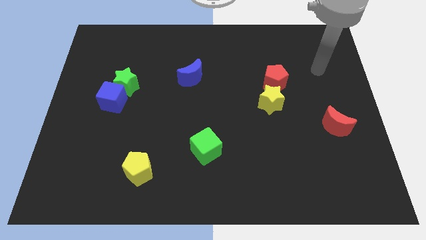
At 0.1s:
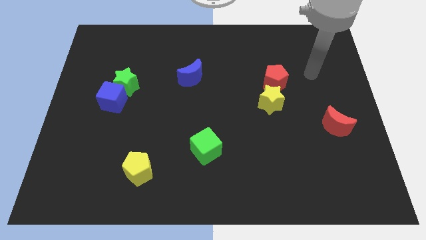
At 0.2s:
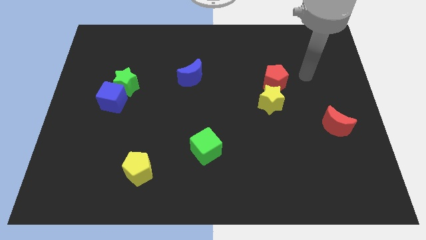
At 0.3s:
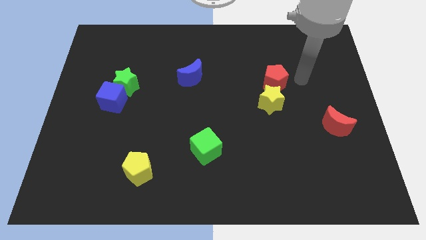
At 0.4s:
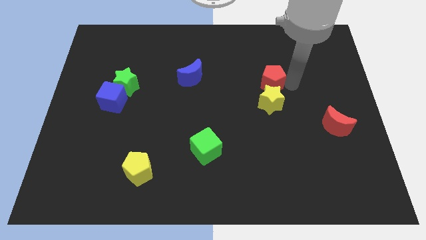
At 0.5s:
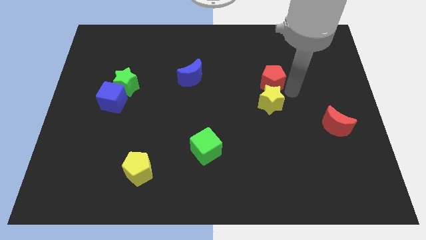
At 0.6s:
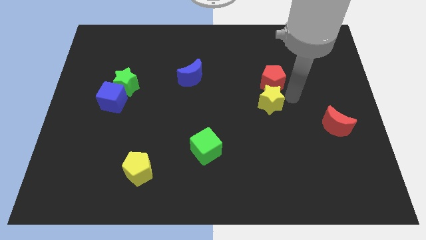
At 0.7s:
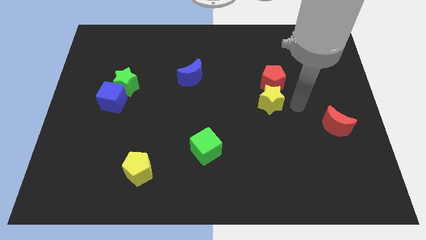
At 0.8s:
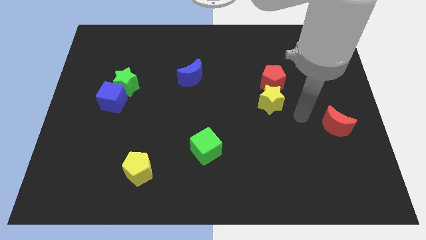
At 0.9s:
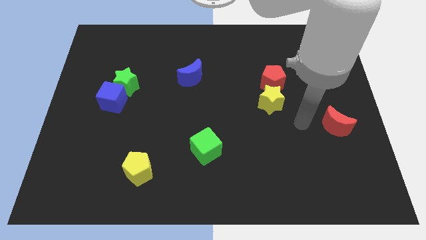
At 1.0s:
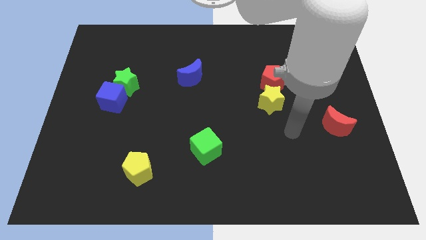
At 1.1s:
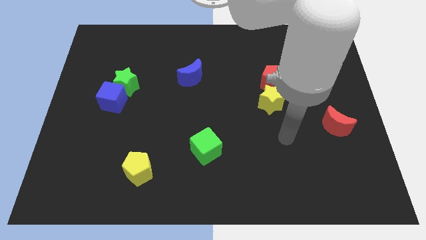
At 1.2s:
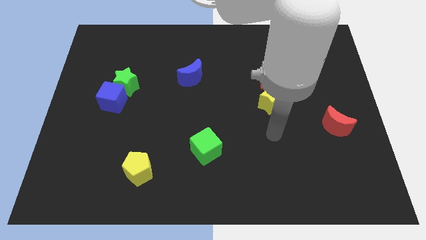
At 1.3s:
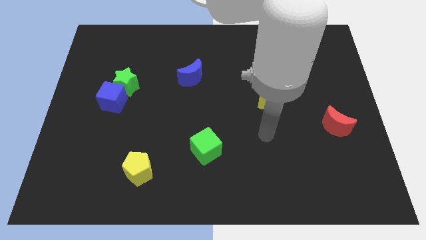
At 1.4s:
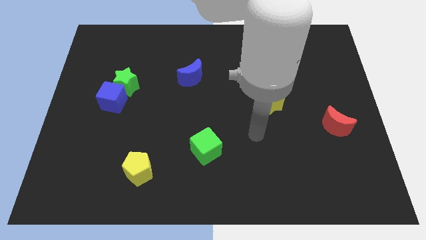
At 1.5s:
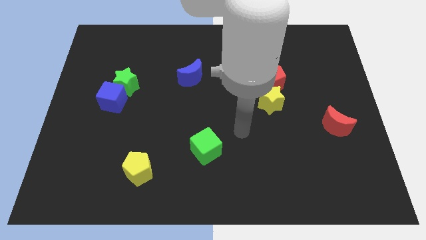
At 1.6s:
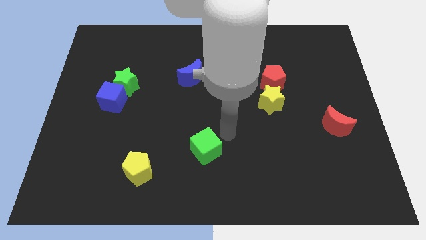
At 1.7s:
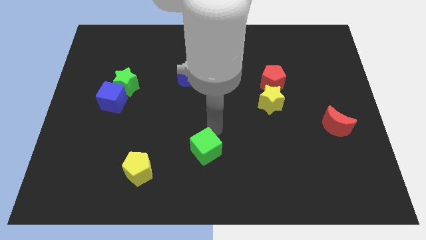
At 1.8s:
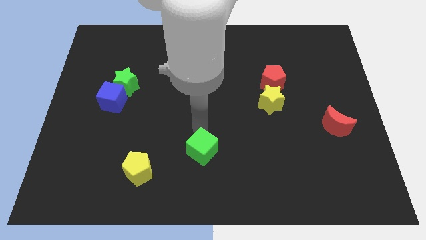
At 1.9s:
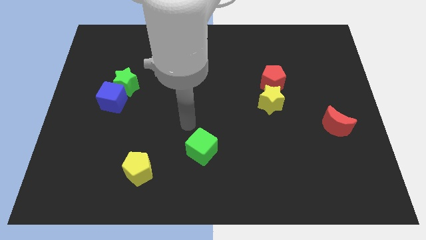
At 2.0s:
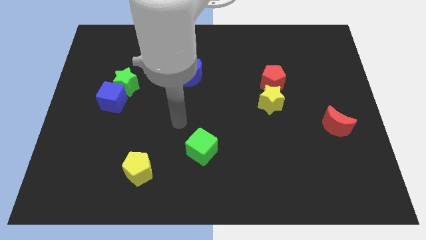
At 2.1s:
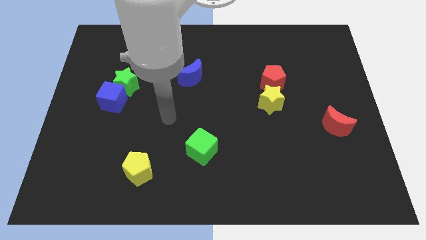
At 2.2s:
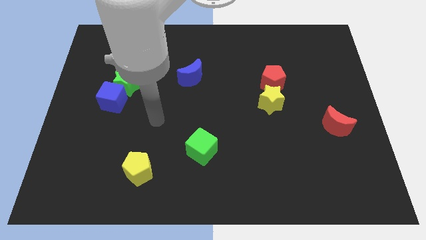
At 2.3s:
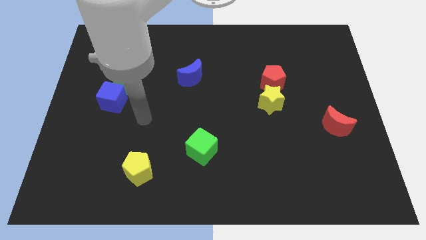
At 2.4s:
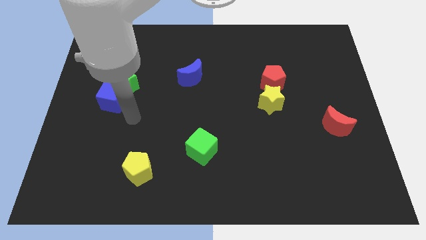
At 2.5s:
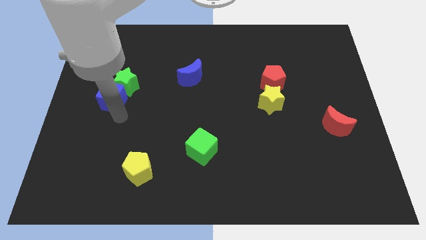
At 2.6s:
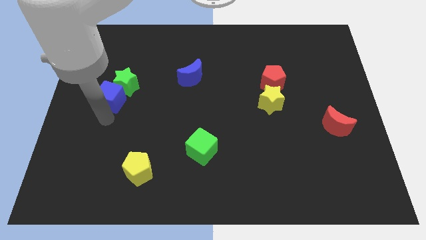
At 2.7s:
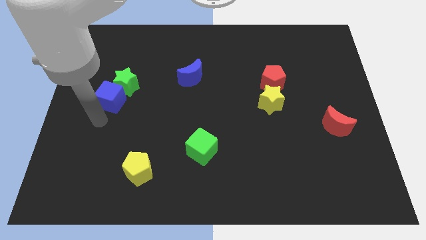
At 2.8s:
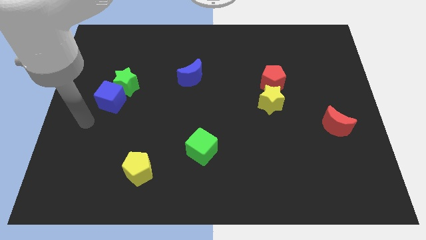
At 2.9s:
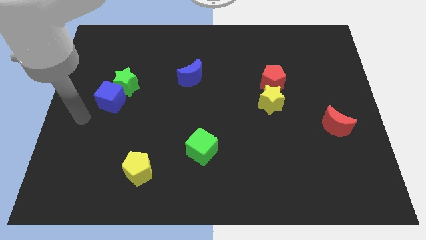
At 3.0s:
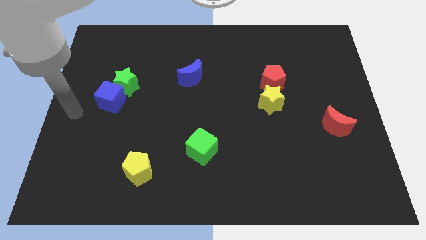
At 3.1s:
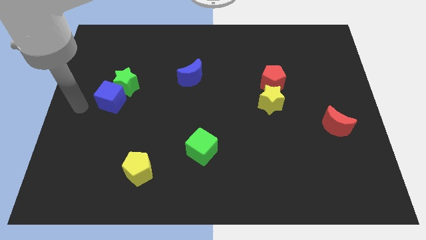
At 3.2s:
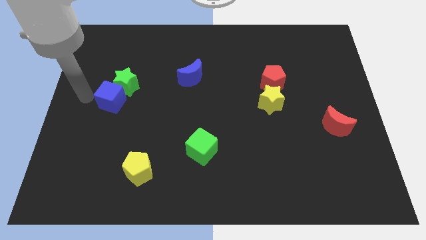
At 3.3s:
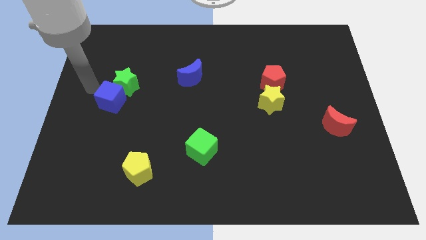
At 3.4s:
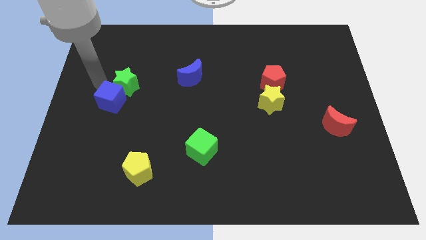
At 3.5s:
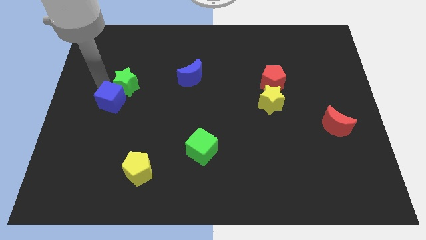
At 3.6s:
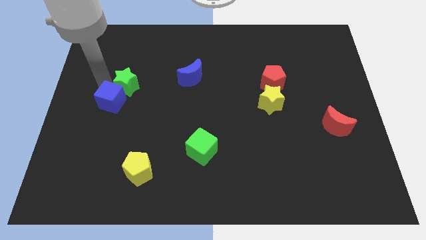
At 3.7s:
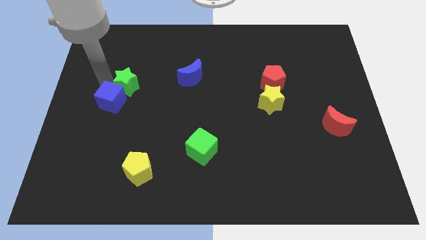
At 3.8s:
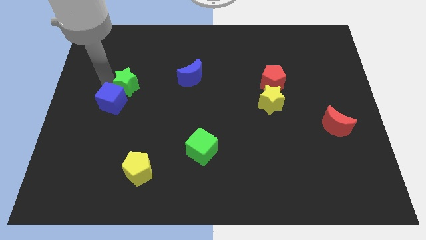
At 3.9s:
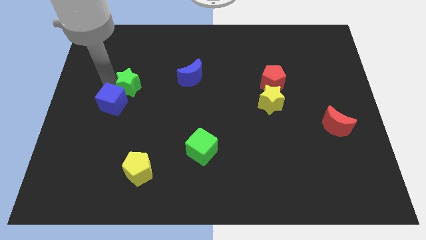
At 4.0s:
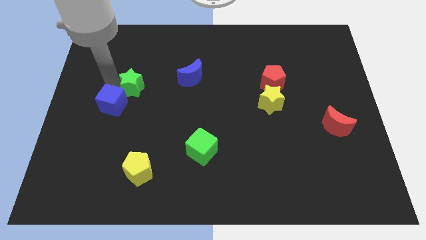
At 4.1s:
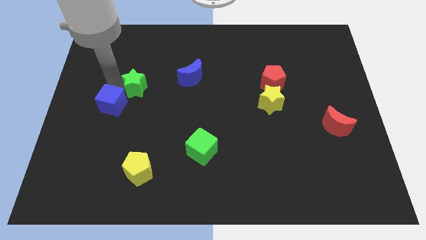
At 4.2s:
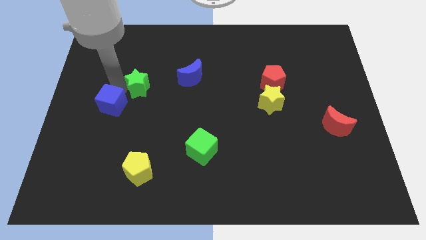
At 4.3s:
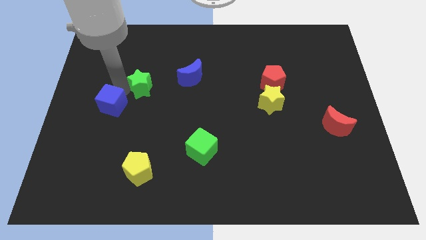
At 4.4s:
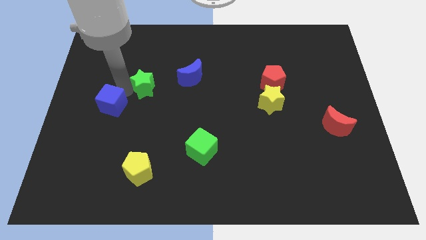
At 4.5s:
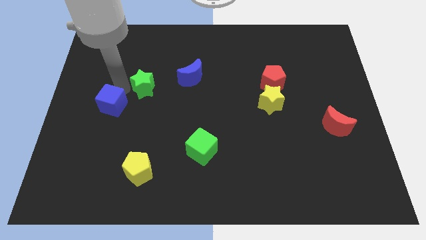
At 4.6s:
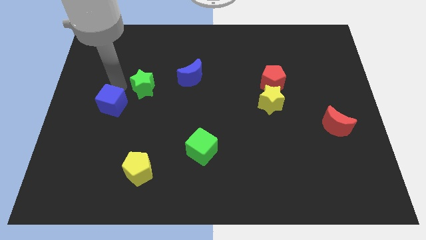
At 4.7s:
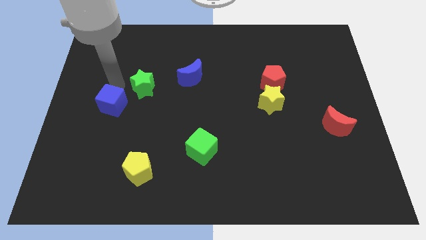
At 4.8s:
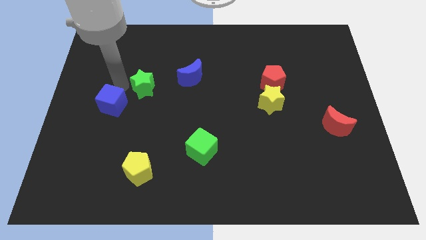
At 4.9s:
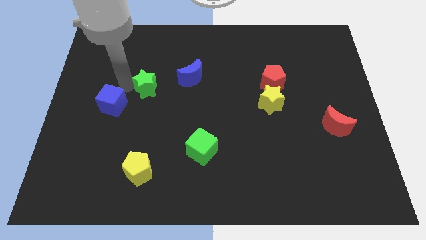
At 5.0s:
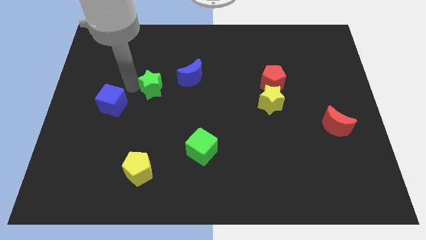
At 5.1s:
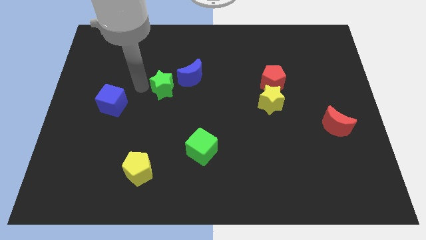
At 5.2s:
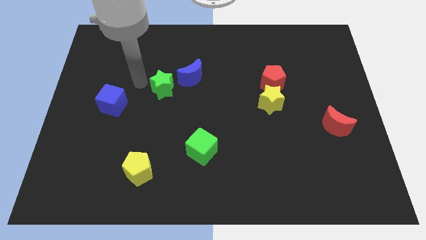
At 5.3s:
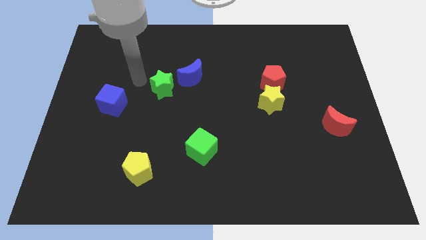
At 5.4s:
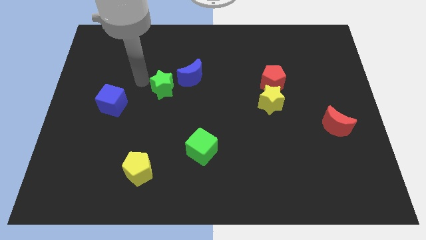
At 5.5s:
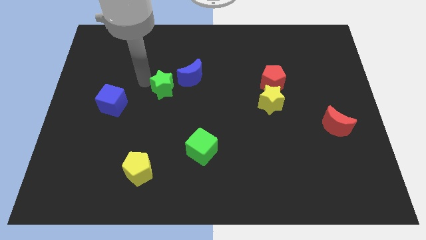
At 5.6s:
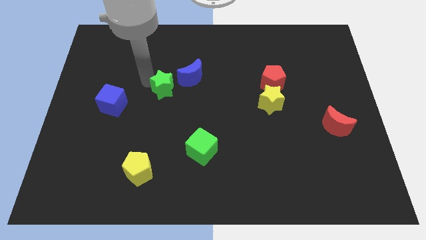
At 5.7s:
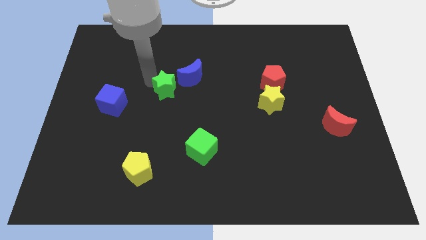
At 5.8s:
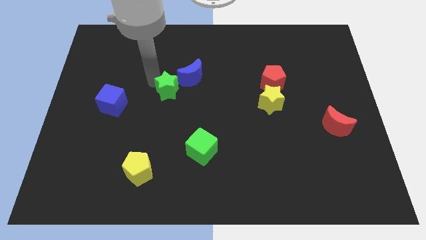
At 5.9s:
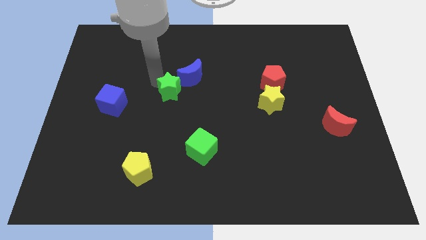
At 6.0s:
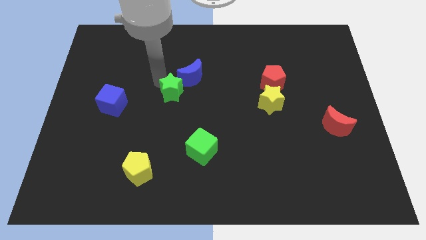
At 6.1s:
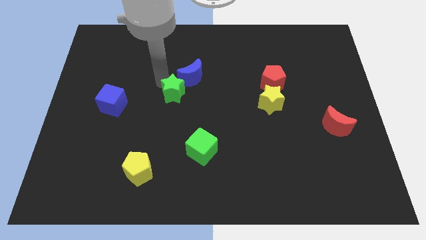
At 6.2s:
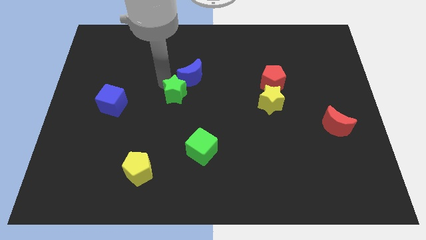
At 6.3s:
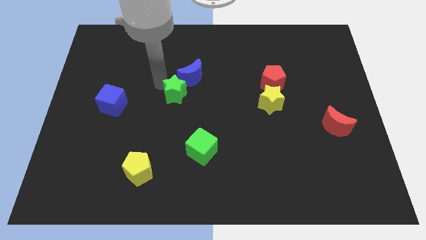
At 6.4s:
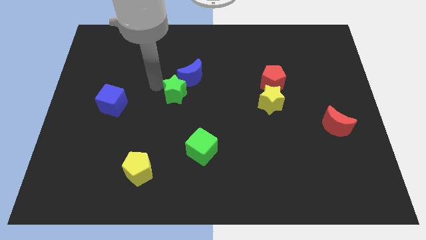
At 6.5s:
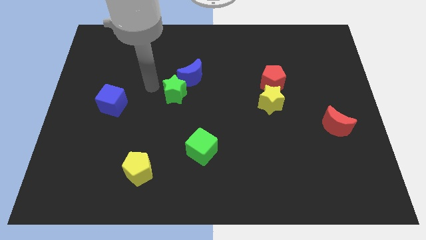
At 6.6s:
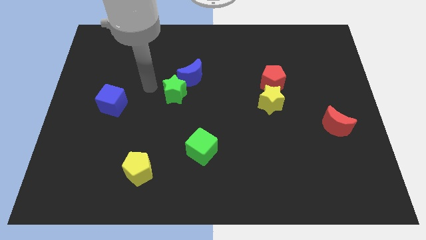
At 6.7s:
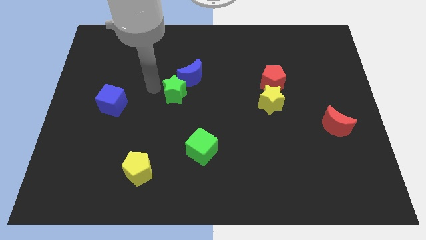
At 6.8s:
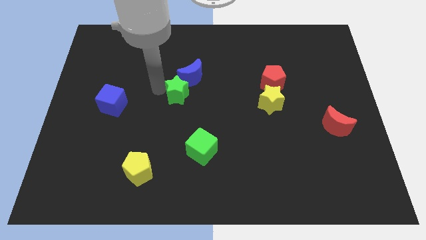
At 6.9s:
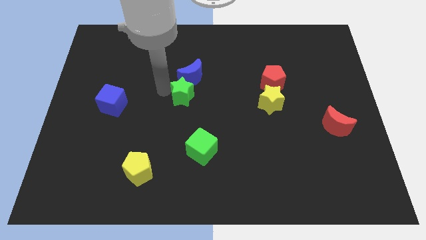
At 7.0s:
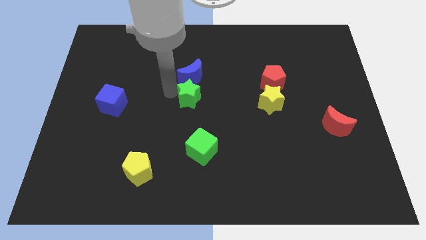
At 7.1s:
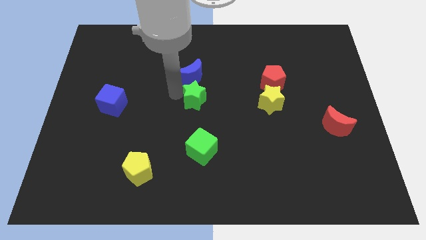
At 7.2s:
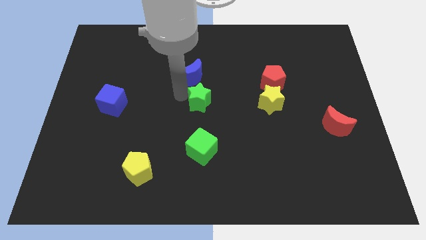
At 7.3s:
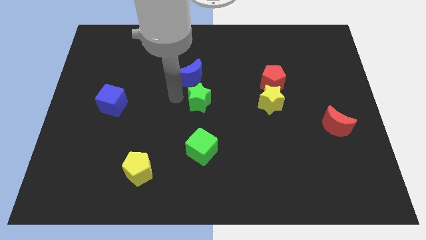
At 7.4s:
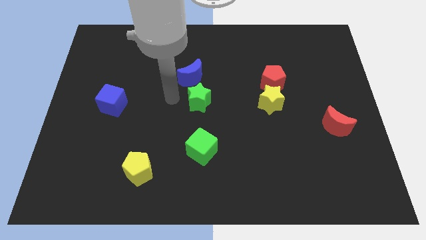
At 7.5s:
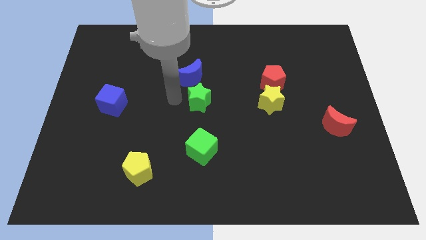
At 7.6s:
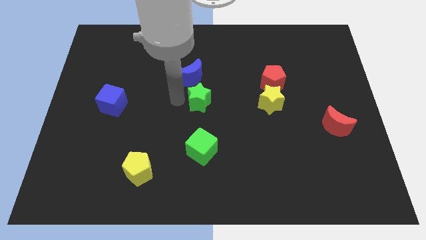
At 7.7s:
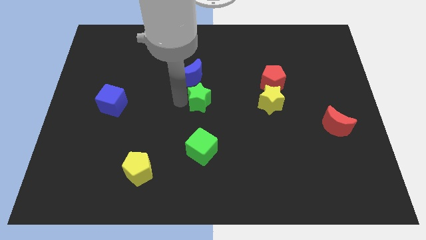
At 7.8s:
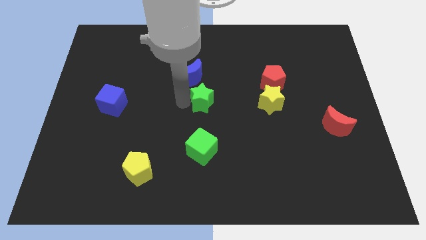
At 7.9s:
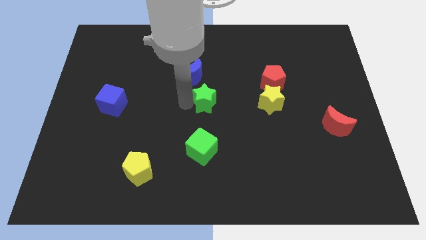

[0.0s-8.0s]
move the green star to the left of the yellow star
